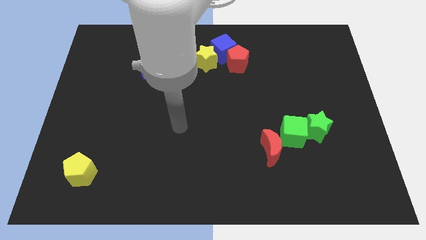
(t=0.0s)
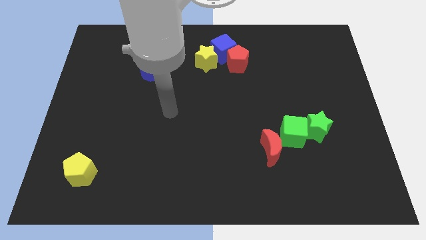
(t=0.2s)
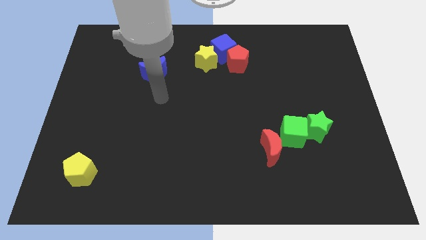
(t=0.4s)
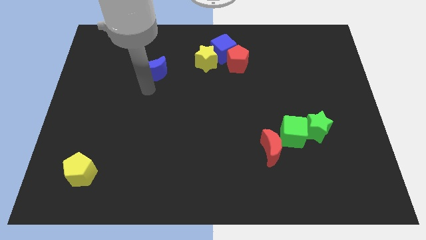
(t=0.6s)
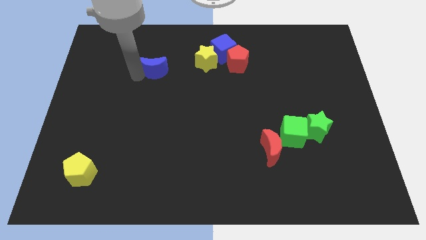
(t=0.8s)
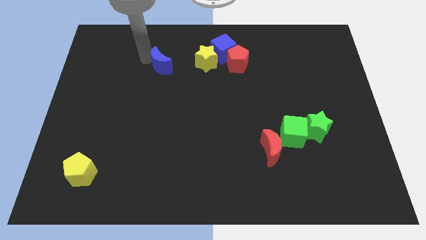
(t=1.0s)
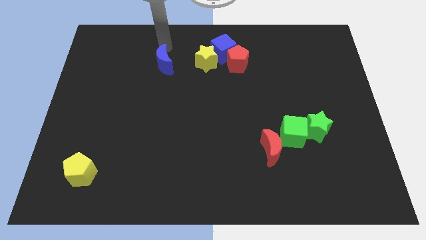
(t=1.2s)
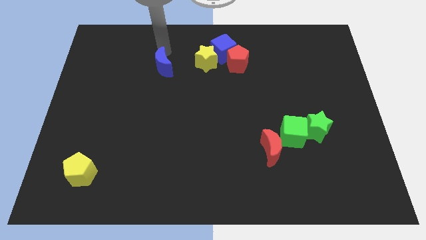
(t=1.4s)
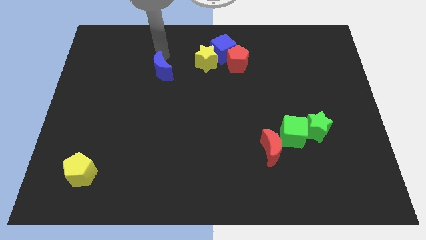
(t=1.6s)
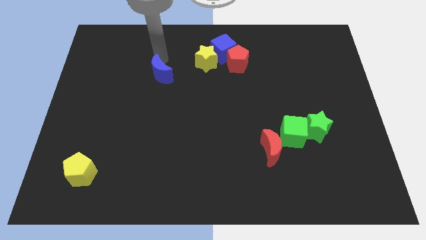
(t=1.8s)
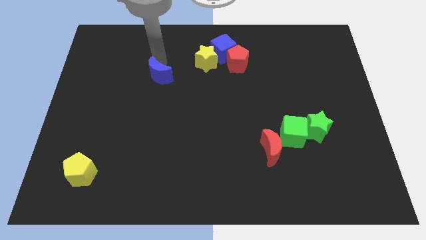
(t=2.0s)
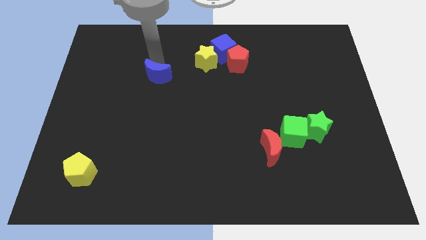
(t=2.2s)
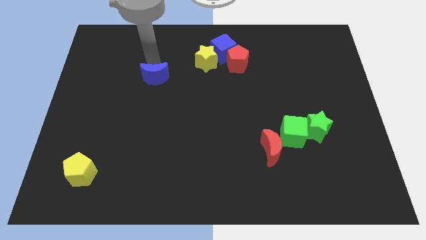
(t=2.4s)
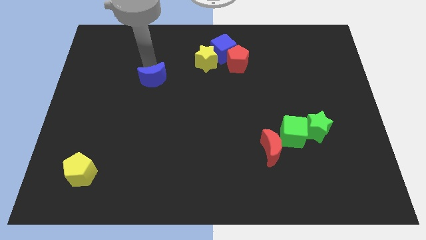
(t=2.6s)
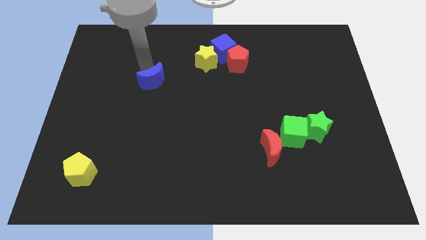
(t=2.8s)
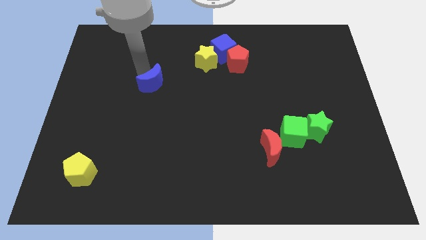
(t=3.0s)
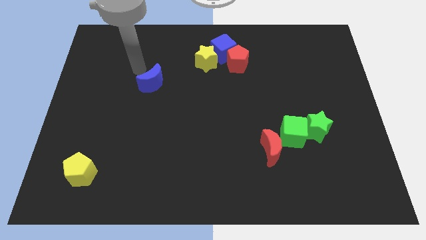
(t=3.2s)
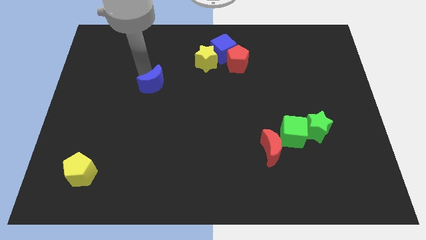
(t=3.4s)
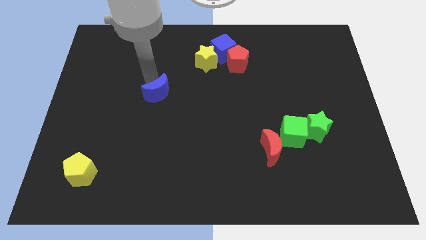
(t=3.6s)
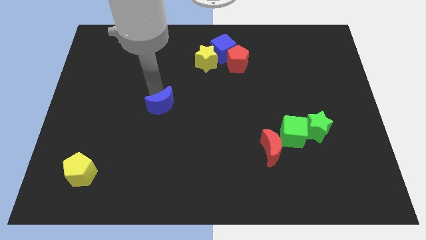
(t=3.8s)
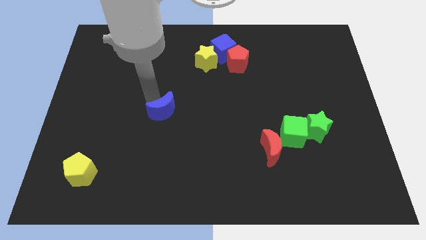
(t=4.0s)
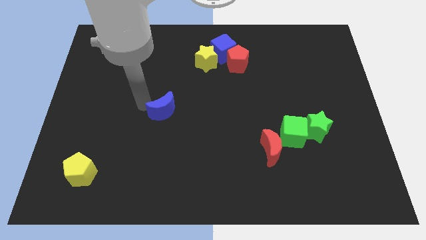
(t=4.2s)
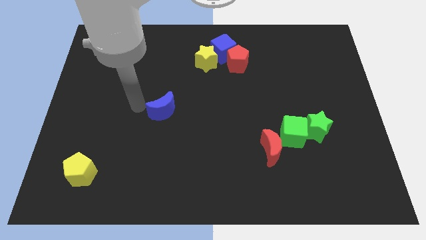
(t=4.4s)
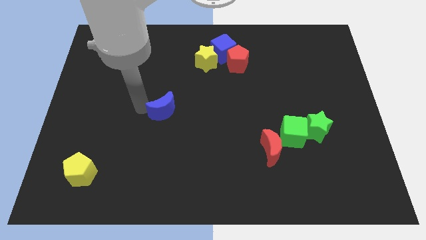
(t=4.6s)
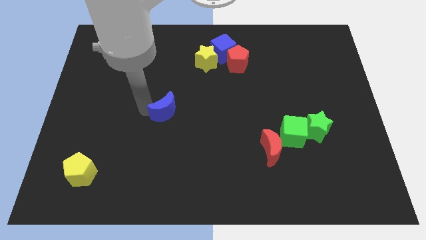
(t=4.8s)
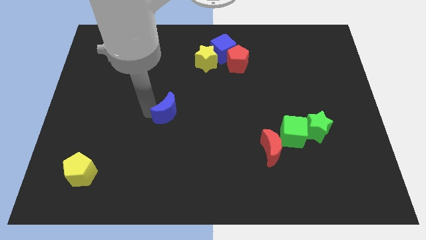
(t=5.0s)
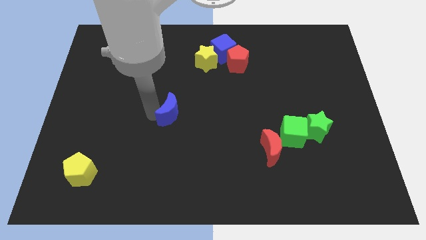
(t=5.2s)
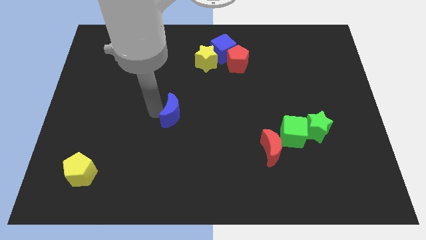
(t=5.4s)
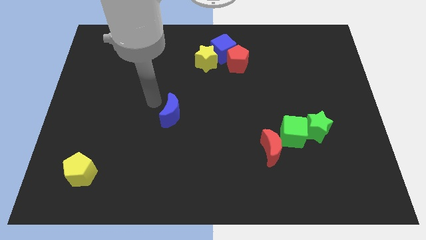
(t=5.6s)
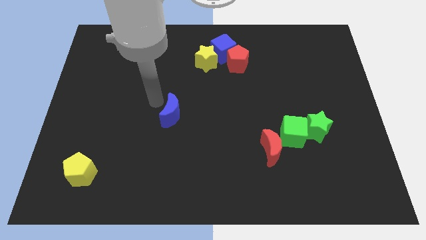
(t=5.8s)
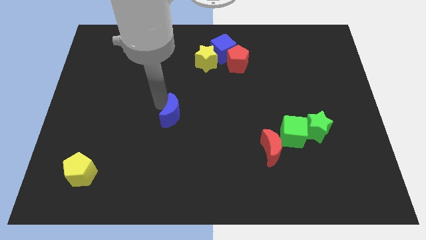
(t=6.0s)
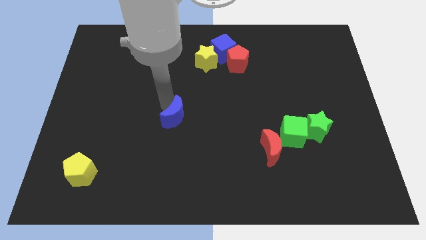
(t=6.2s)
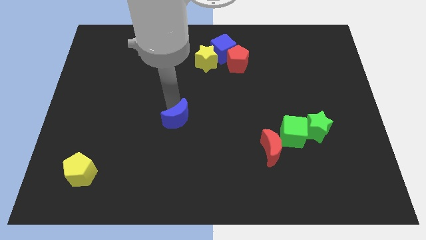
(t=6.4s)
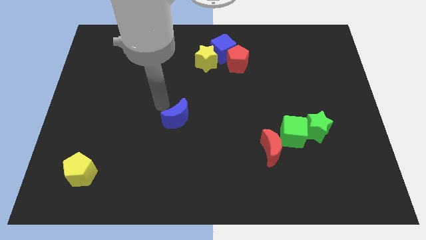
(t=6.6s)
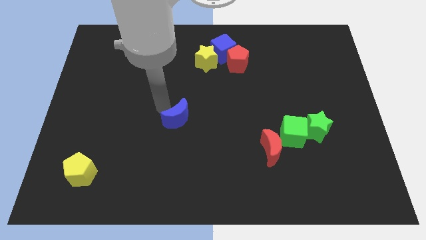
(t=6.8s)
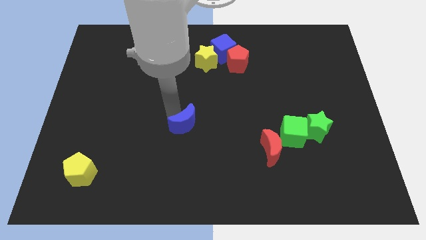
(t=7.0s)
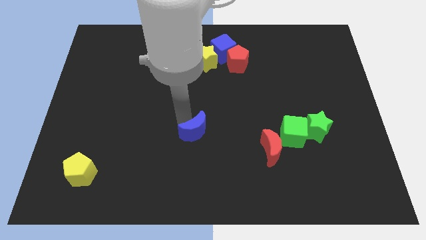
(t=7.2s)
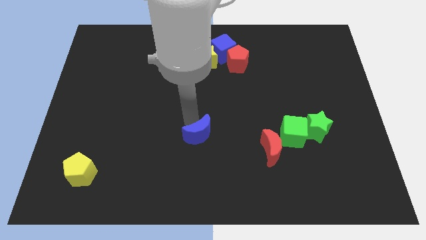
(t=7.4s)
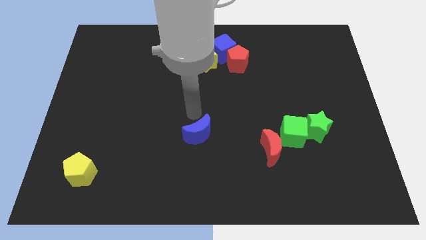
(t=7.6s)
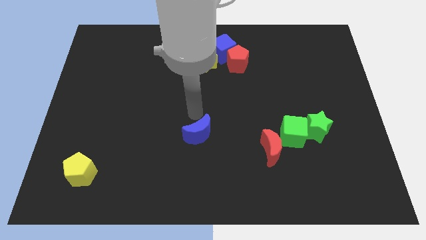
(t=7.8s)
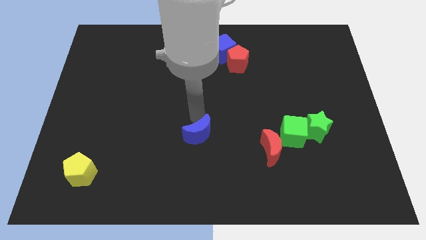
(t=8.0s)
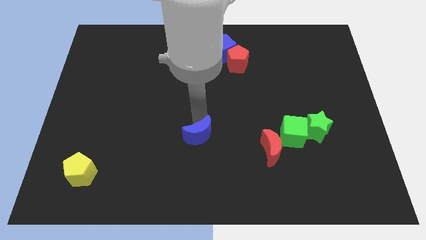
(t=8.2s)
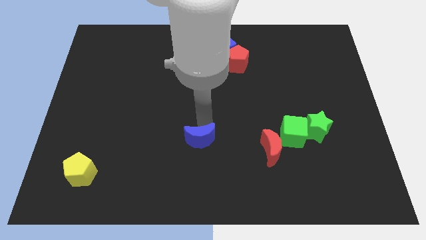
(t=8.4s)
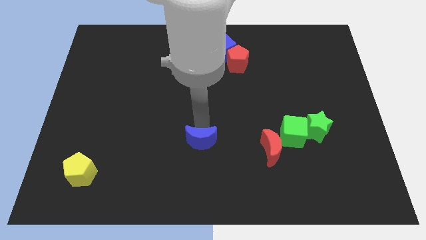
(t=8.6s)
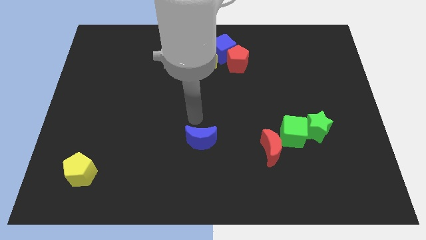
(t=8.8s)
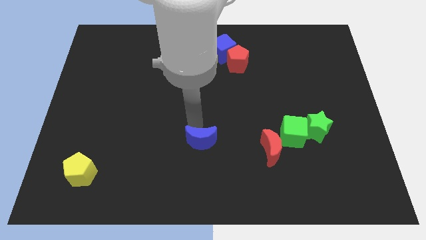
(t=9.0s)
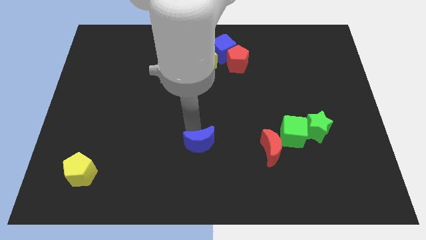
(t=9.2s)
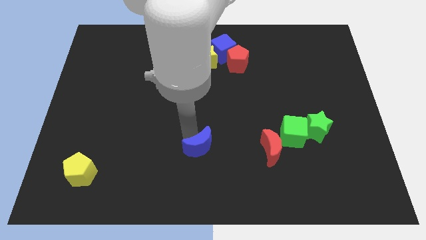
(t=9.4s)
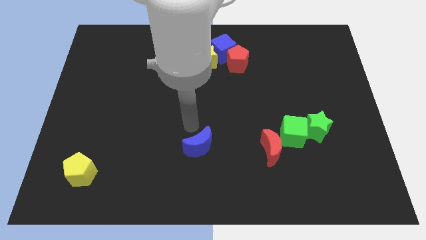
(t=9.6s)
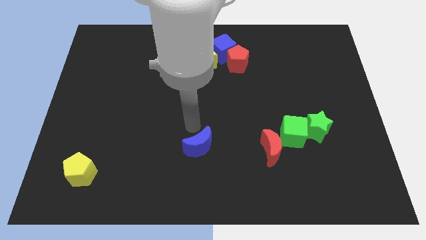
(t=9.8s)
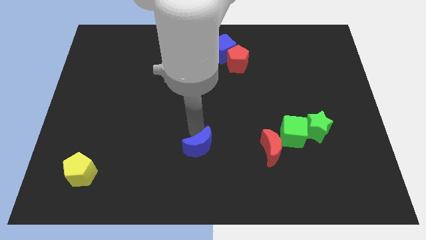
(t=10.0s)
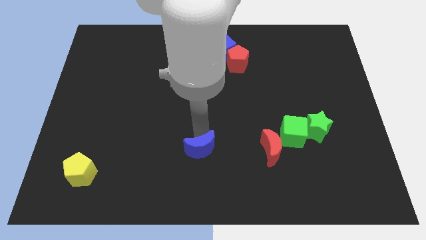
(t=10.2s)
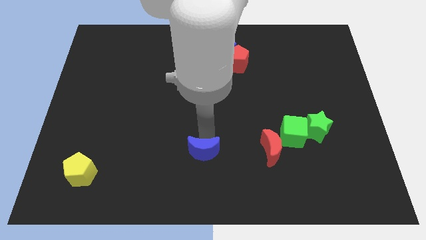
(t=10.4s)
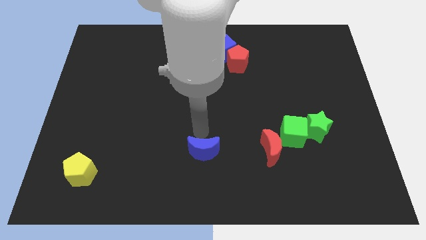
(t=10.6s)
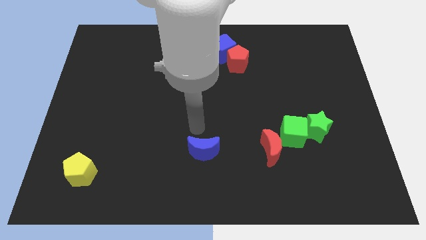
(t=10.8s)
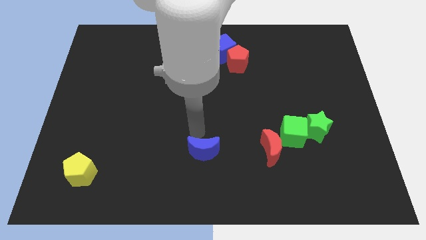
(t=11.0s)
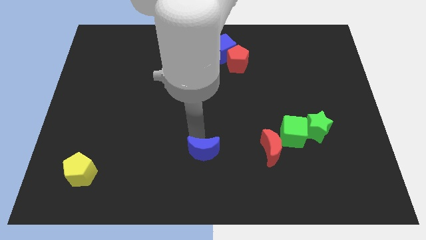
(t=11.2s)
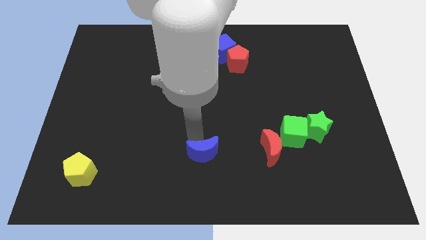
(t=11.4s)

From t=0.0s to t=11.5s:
slide the blue moon to the bottom side
